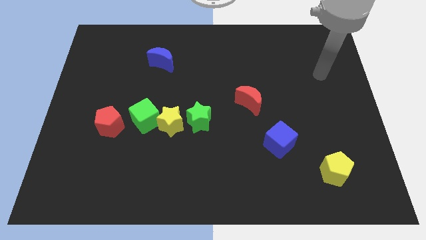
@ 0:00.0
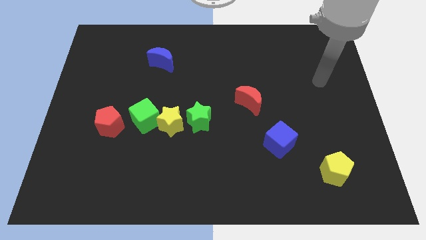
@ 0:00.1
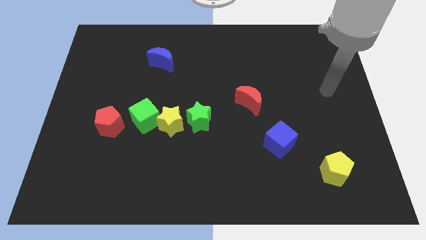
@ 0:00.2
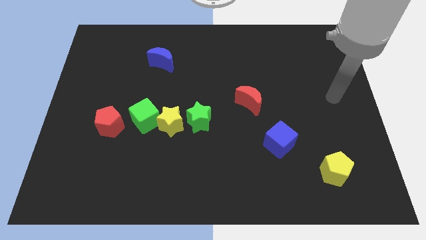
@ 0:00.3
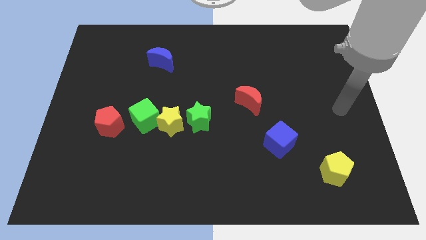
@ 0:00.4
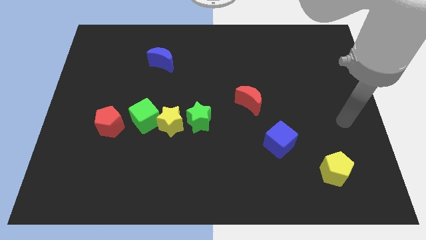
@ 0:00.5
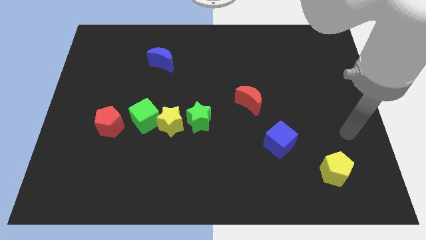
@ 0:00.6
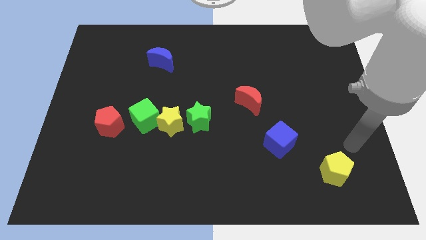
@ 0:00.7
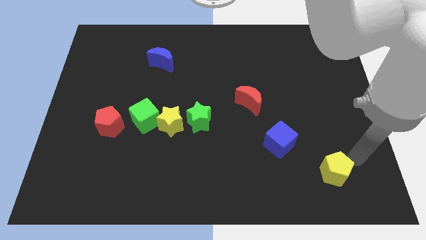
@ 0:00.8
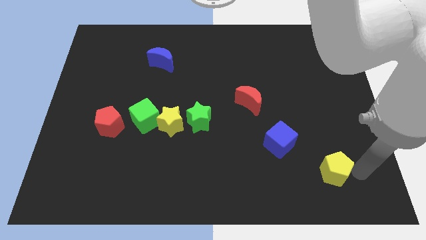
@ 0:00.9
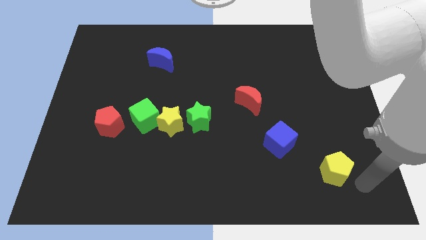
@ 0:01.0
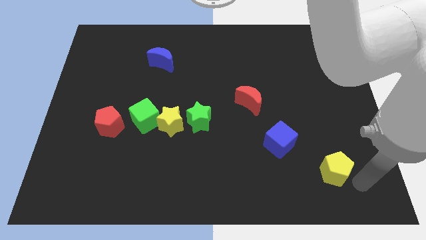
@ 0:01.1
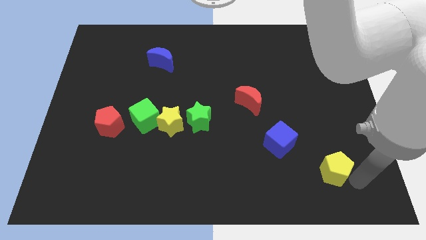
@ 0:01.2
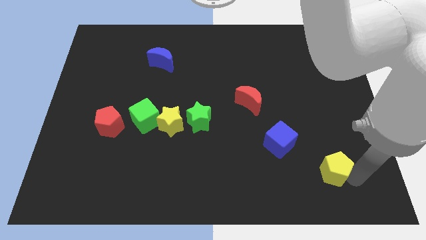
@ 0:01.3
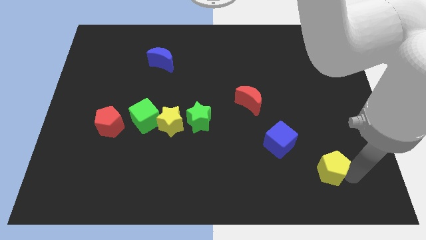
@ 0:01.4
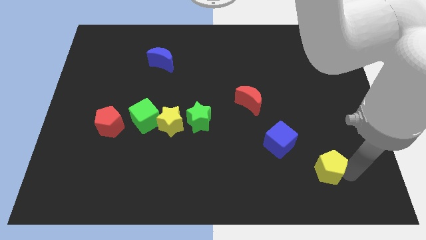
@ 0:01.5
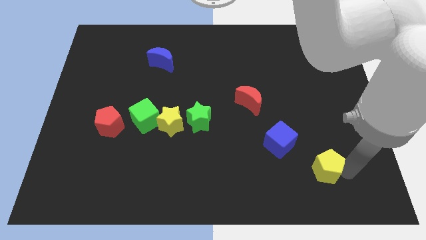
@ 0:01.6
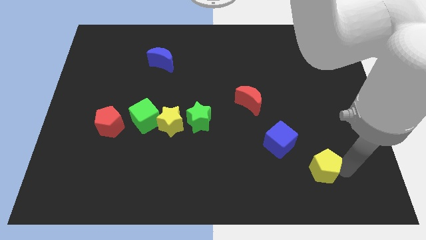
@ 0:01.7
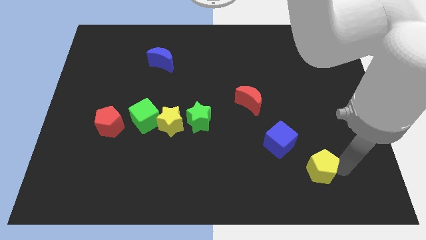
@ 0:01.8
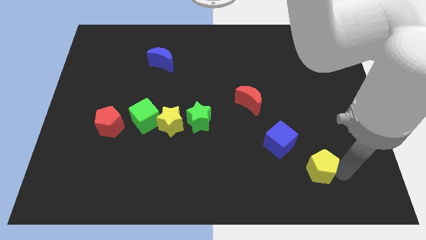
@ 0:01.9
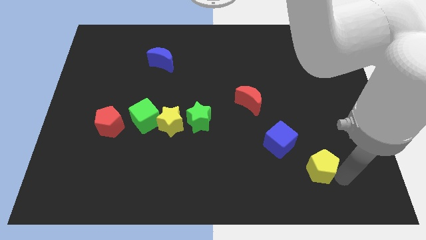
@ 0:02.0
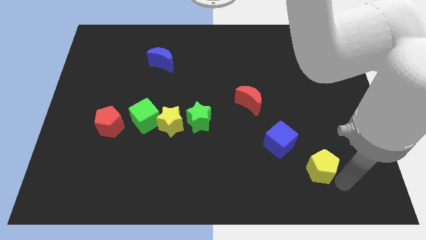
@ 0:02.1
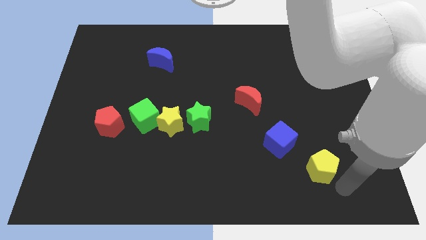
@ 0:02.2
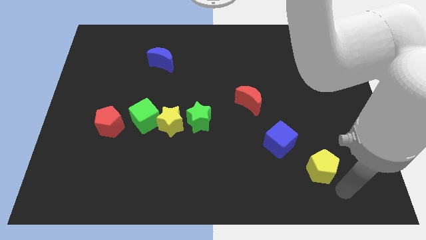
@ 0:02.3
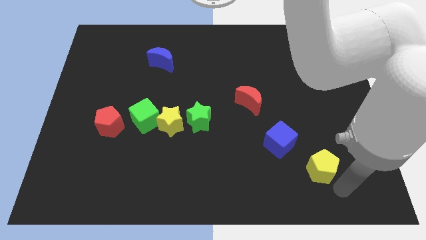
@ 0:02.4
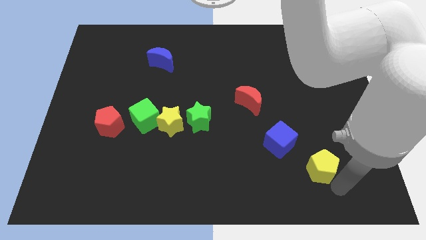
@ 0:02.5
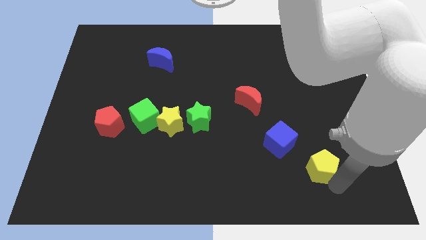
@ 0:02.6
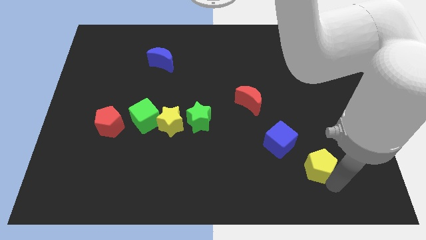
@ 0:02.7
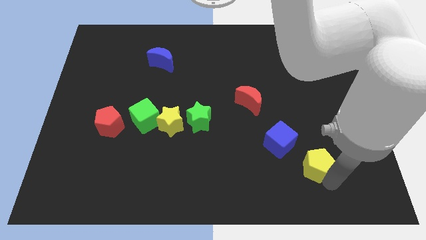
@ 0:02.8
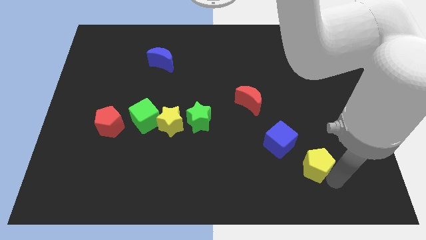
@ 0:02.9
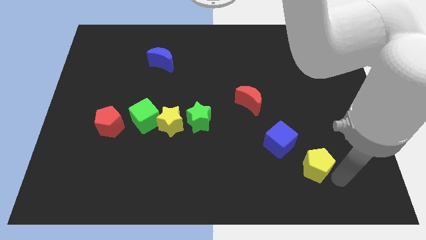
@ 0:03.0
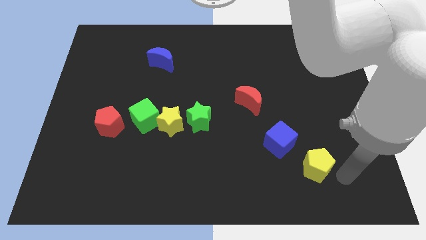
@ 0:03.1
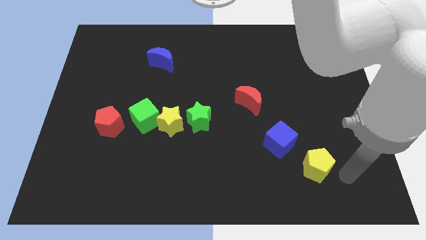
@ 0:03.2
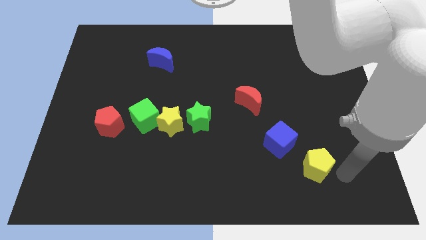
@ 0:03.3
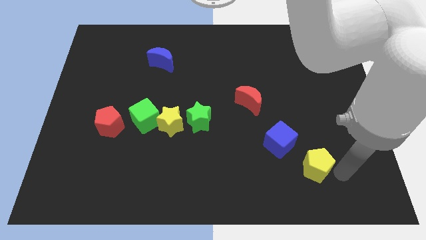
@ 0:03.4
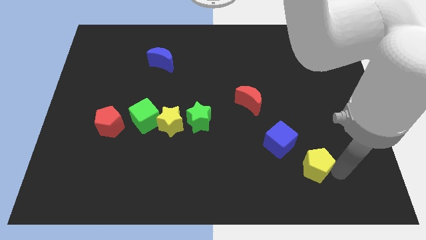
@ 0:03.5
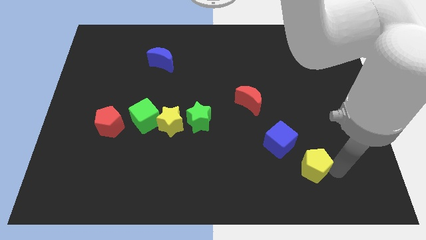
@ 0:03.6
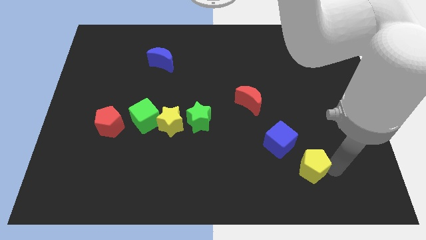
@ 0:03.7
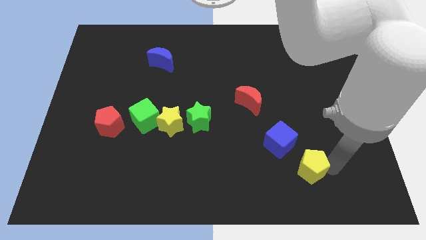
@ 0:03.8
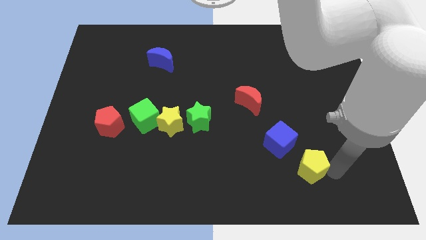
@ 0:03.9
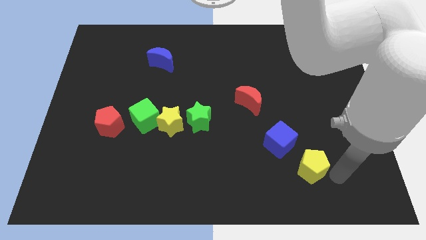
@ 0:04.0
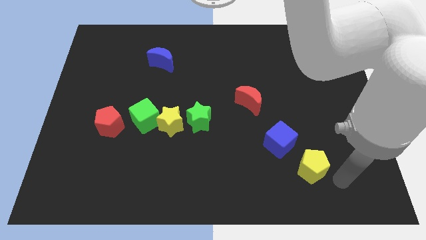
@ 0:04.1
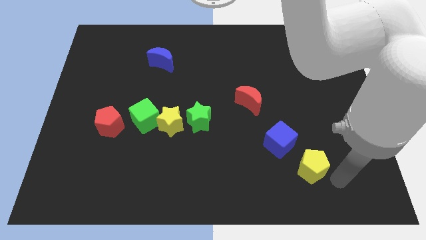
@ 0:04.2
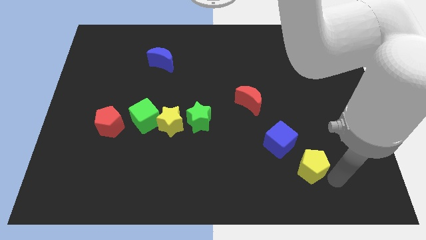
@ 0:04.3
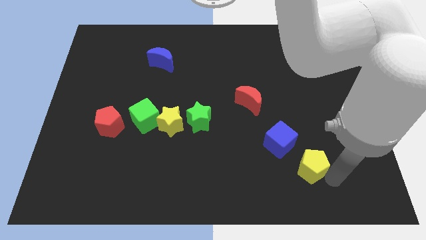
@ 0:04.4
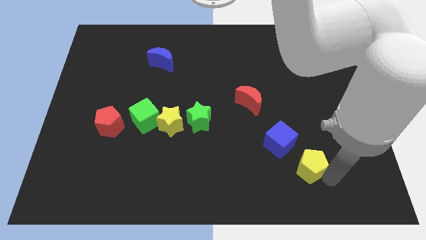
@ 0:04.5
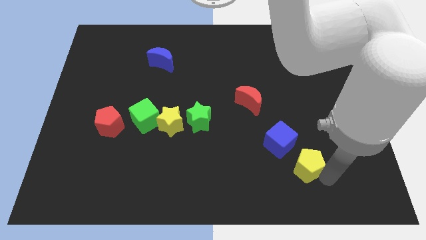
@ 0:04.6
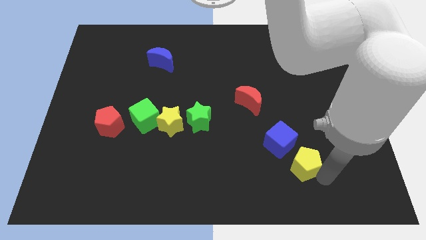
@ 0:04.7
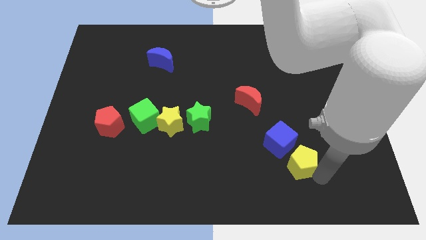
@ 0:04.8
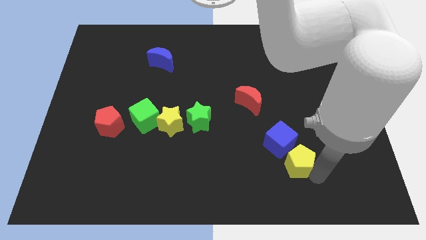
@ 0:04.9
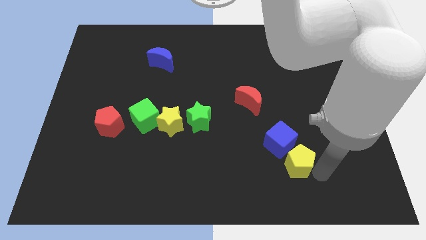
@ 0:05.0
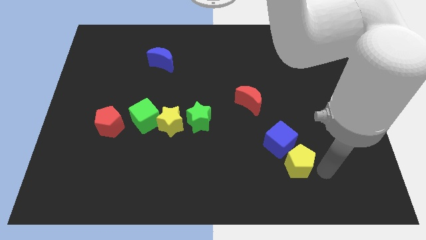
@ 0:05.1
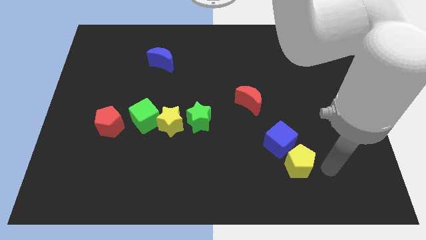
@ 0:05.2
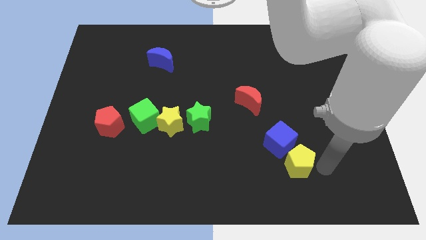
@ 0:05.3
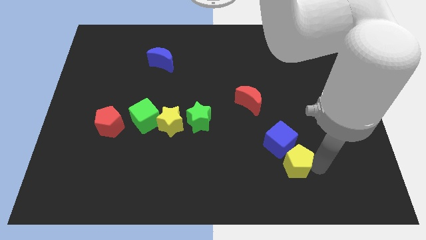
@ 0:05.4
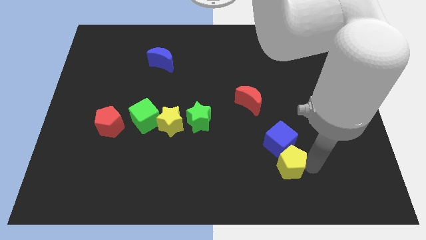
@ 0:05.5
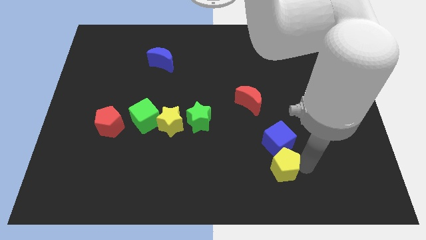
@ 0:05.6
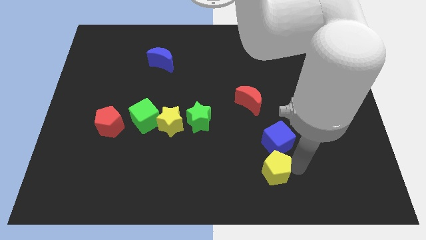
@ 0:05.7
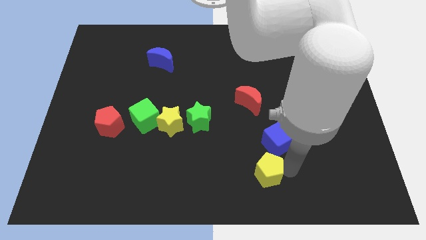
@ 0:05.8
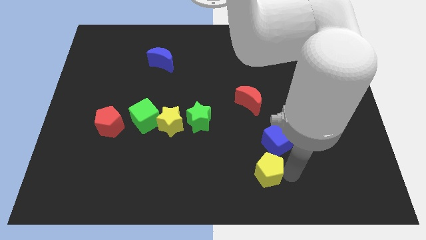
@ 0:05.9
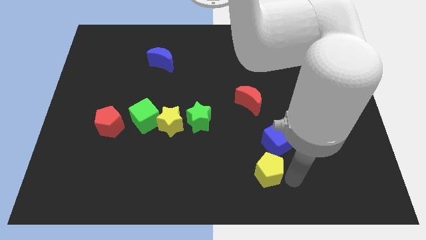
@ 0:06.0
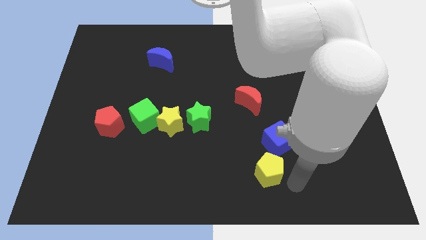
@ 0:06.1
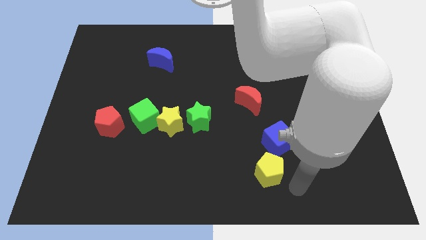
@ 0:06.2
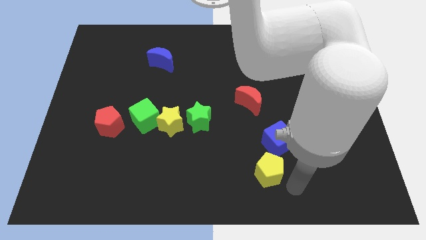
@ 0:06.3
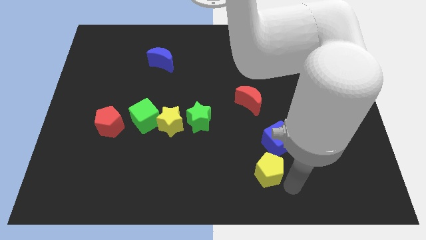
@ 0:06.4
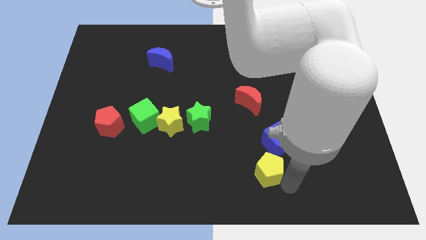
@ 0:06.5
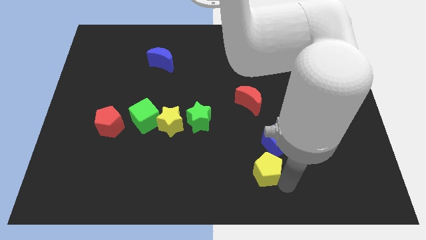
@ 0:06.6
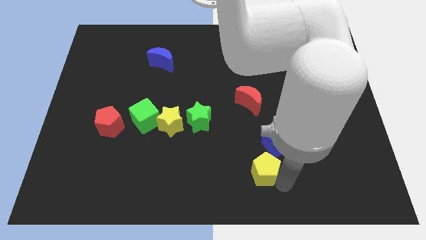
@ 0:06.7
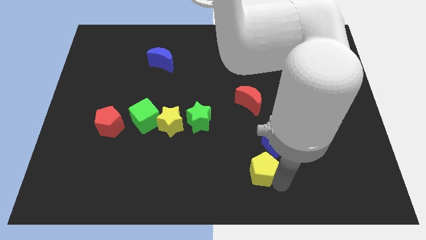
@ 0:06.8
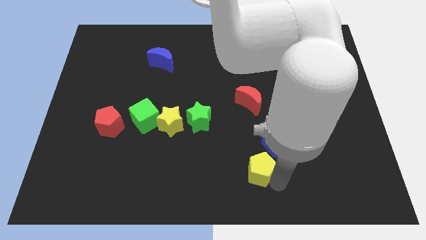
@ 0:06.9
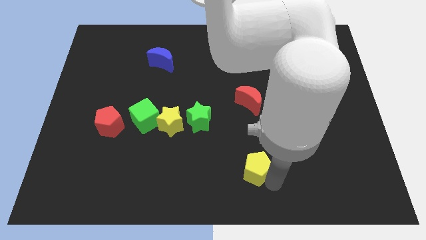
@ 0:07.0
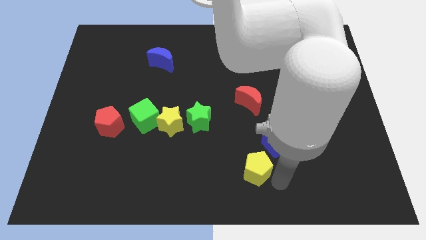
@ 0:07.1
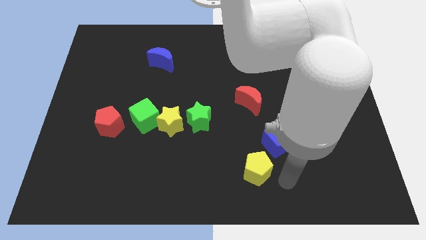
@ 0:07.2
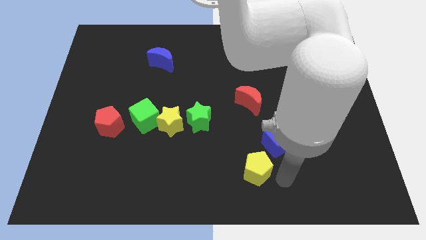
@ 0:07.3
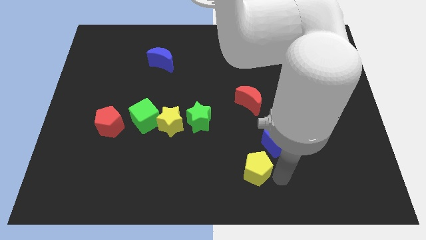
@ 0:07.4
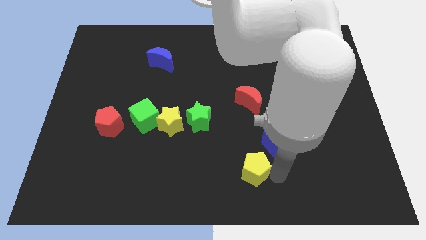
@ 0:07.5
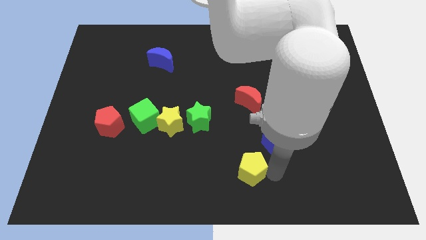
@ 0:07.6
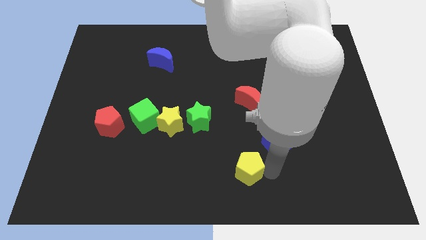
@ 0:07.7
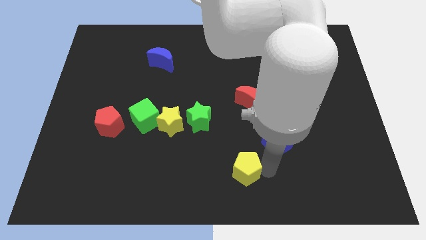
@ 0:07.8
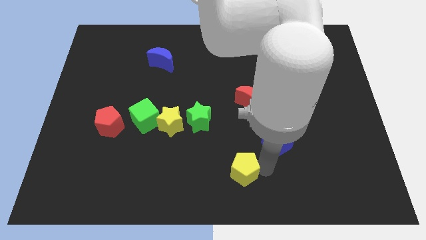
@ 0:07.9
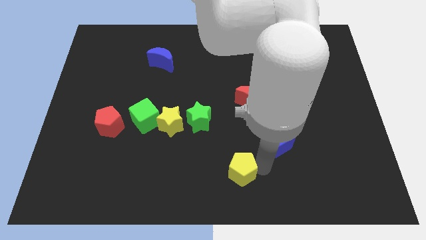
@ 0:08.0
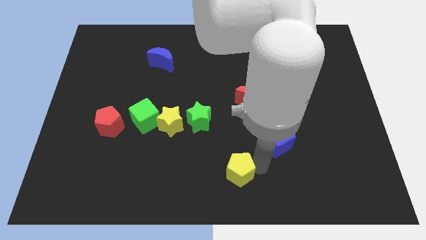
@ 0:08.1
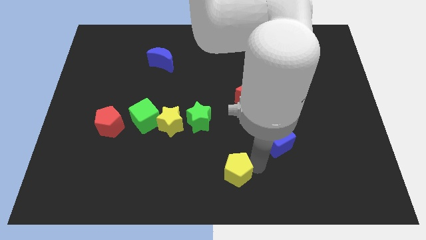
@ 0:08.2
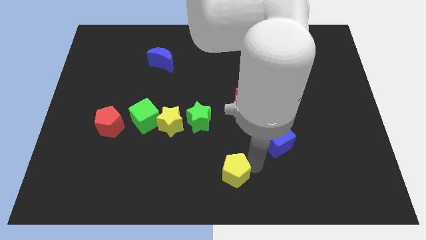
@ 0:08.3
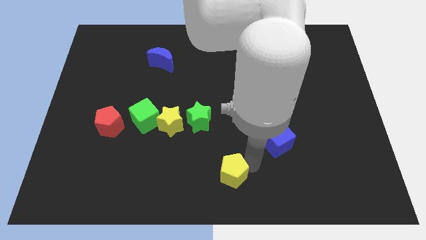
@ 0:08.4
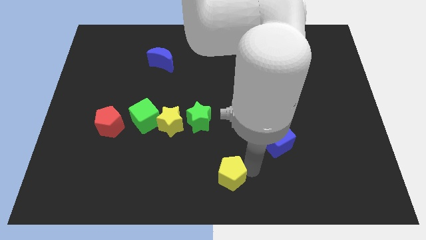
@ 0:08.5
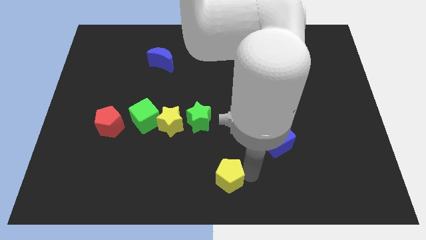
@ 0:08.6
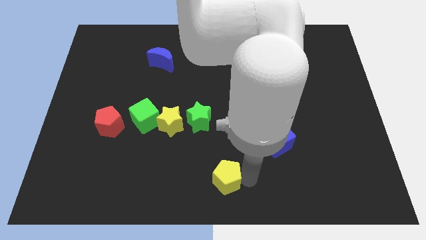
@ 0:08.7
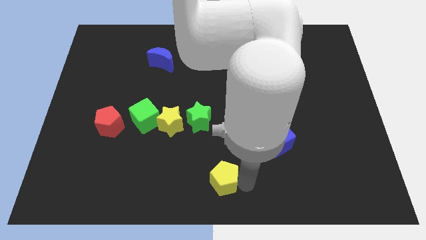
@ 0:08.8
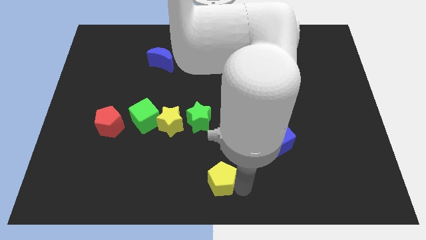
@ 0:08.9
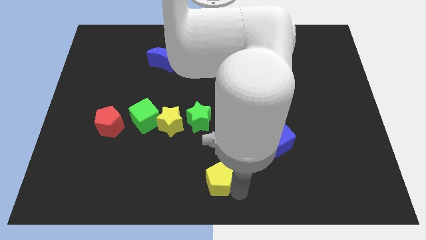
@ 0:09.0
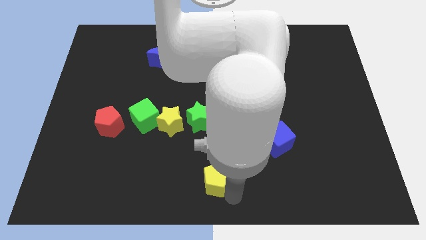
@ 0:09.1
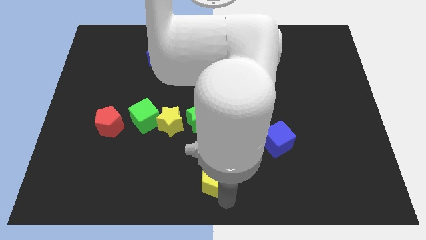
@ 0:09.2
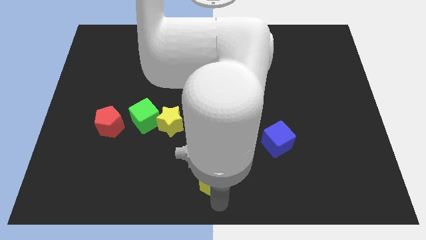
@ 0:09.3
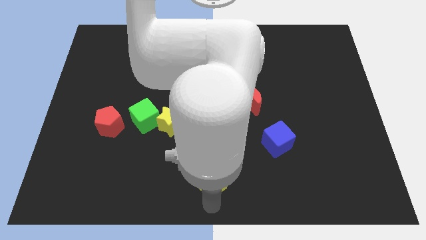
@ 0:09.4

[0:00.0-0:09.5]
put the yellow pentagon to the bottom of the green star
